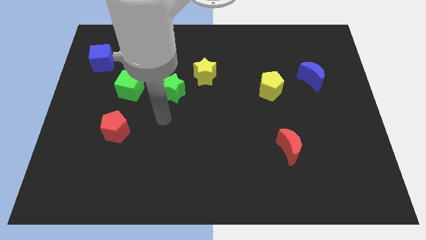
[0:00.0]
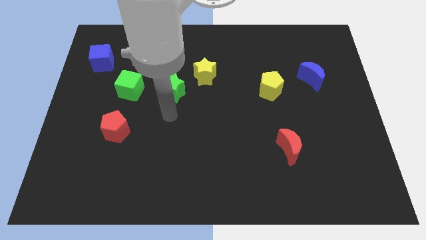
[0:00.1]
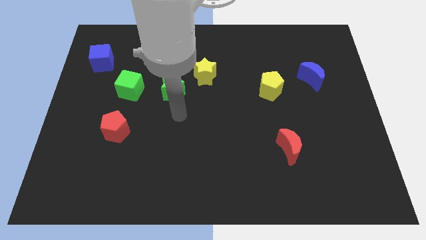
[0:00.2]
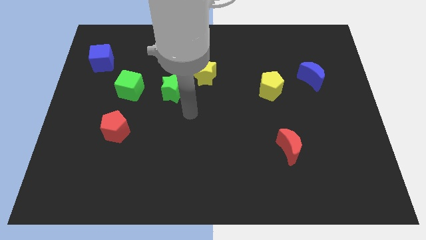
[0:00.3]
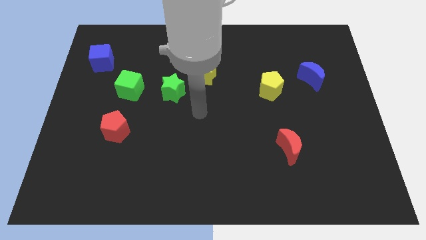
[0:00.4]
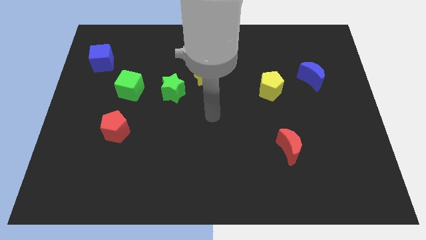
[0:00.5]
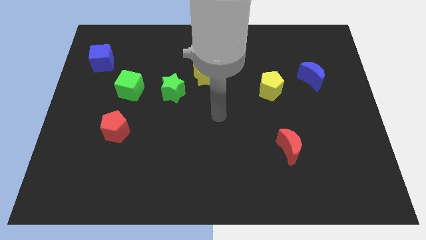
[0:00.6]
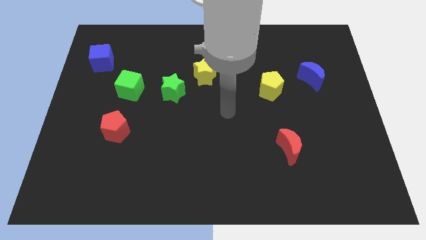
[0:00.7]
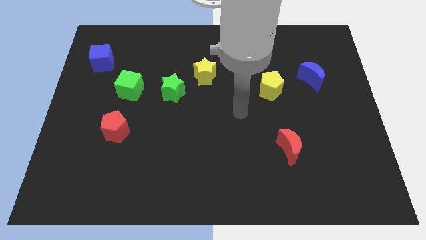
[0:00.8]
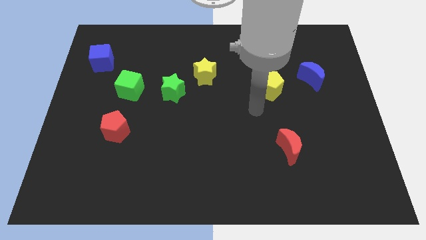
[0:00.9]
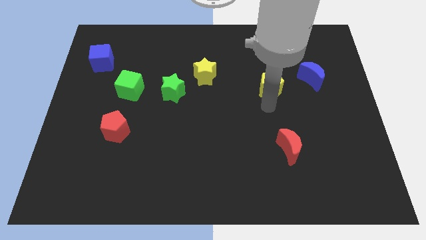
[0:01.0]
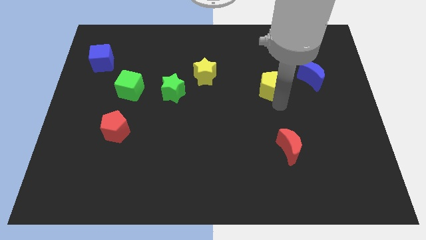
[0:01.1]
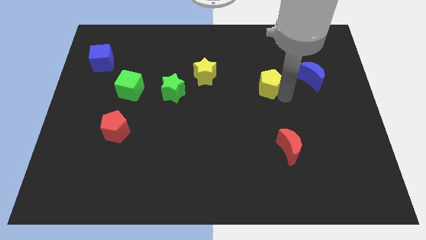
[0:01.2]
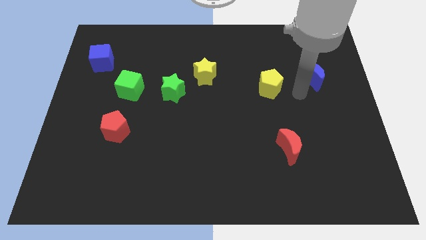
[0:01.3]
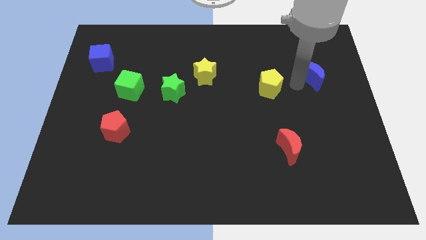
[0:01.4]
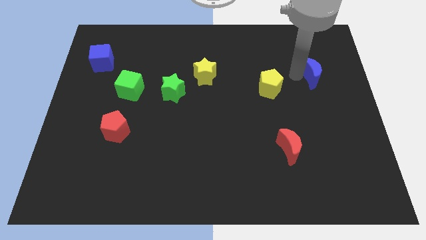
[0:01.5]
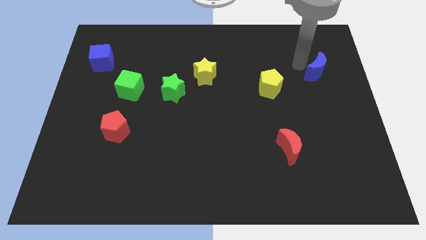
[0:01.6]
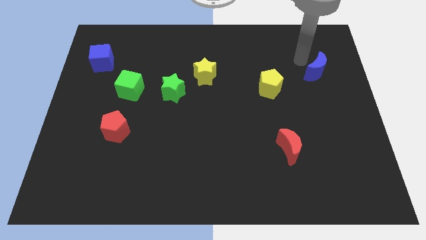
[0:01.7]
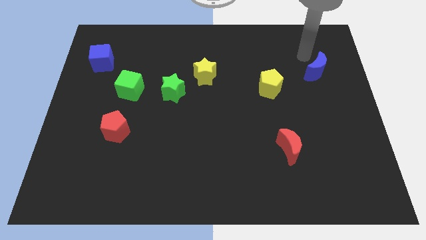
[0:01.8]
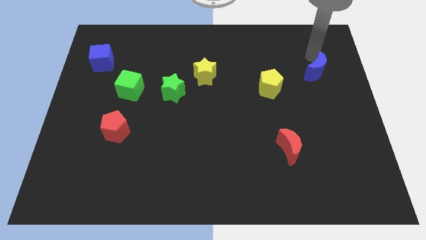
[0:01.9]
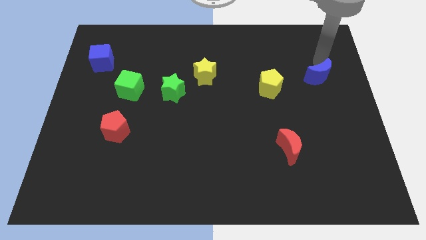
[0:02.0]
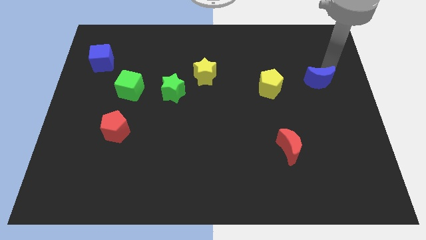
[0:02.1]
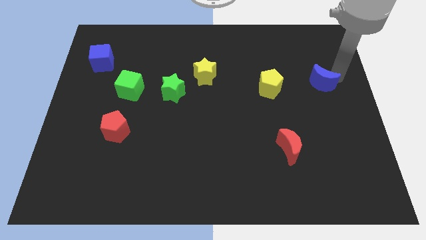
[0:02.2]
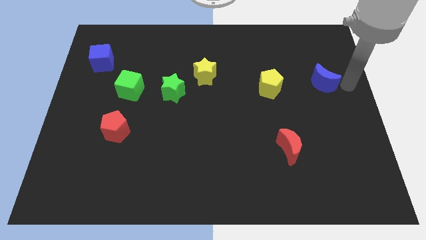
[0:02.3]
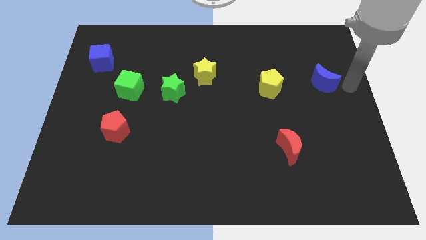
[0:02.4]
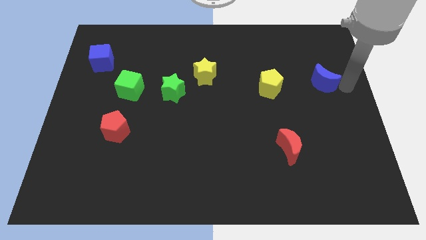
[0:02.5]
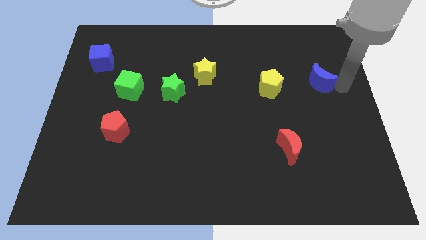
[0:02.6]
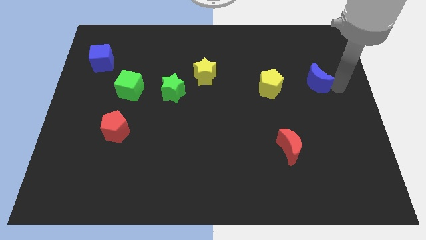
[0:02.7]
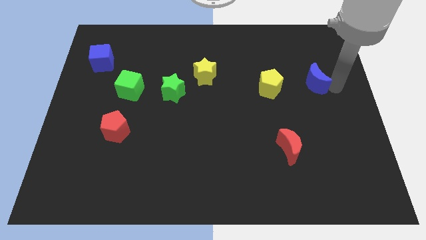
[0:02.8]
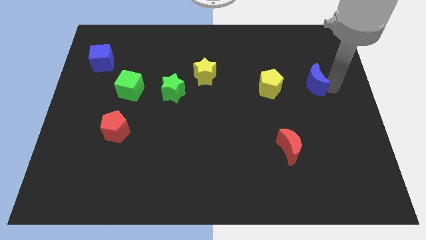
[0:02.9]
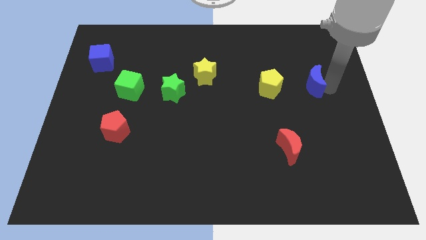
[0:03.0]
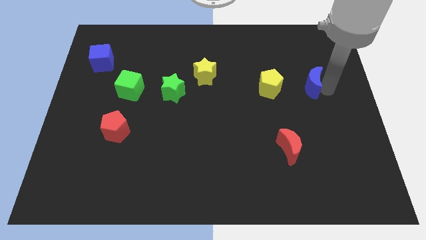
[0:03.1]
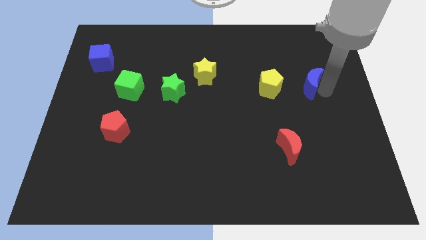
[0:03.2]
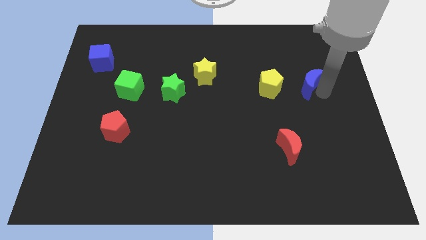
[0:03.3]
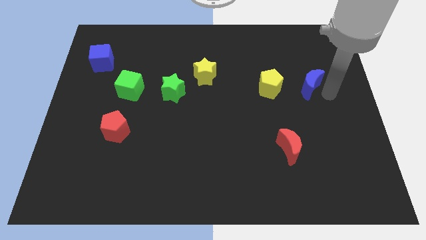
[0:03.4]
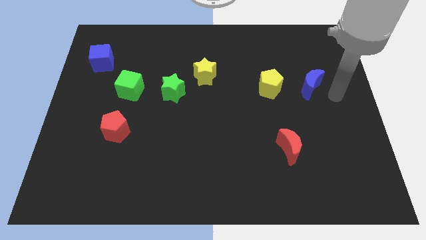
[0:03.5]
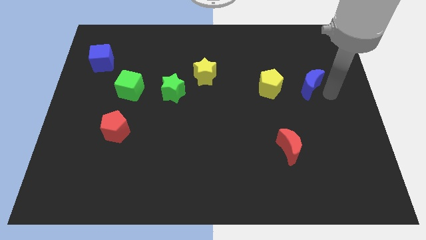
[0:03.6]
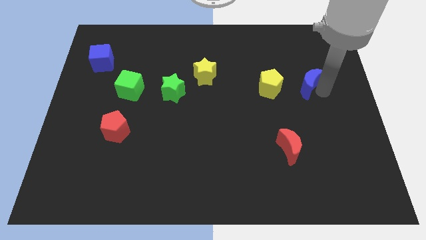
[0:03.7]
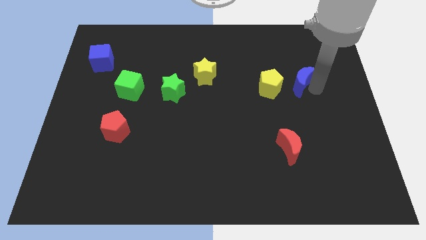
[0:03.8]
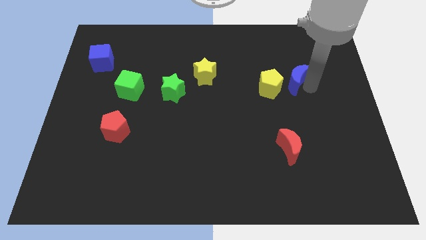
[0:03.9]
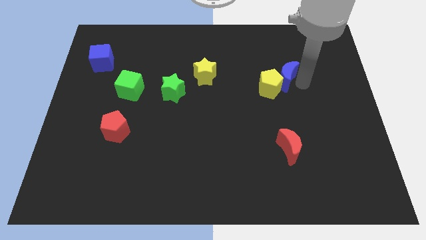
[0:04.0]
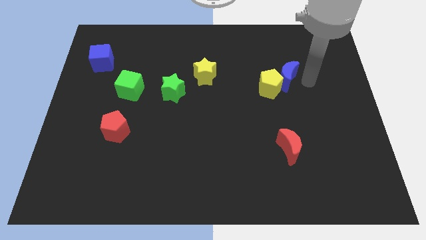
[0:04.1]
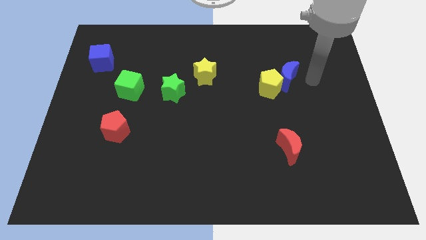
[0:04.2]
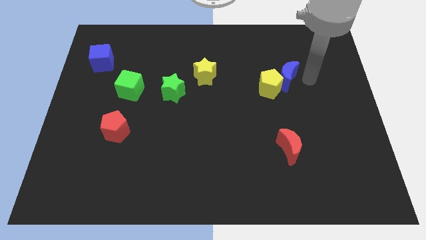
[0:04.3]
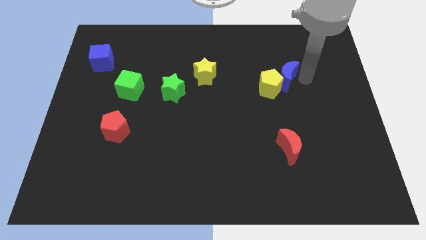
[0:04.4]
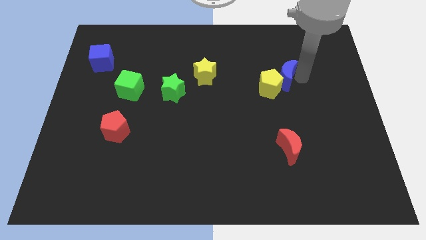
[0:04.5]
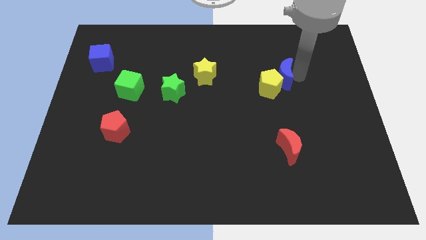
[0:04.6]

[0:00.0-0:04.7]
slightly push the blue moon left

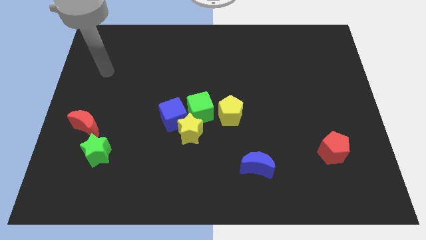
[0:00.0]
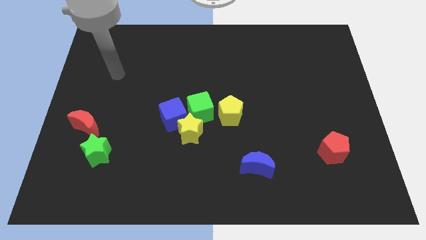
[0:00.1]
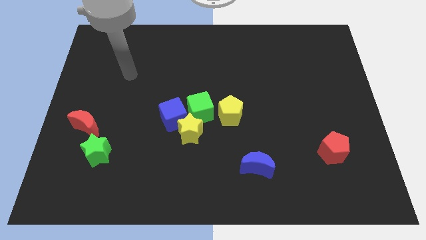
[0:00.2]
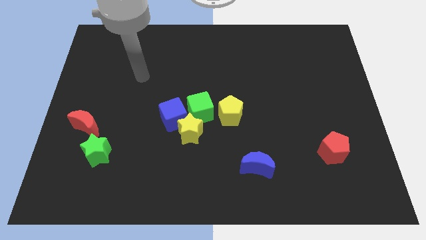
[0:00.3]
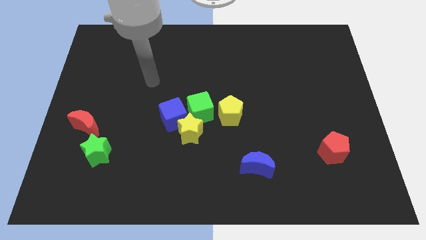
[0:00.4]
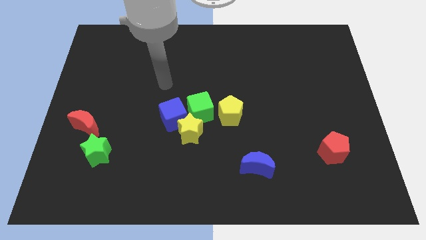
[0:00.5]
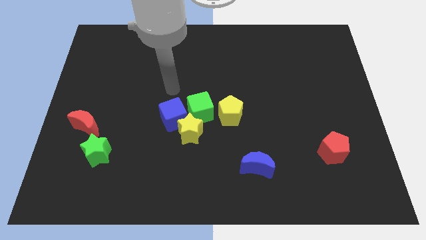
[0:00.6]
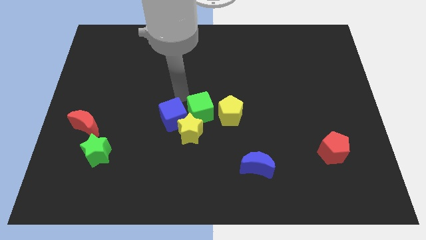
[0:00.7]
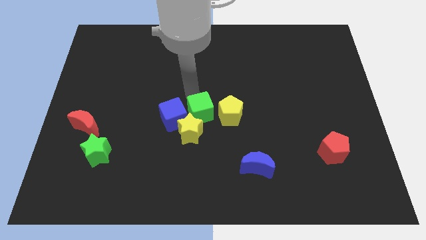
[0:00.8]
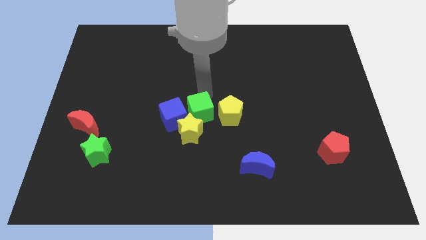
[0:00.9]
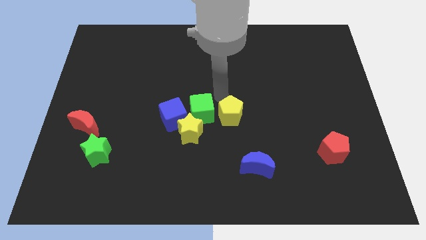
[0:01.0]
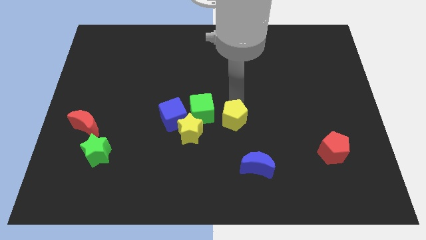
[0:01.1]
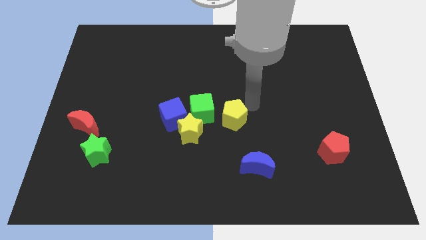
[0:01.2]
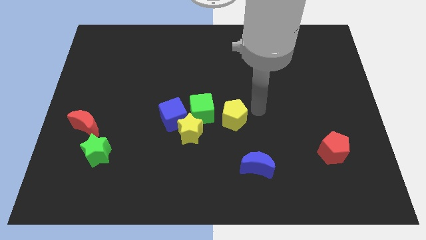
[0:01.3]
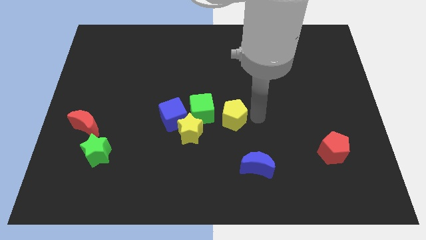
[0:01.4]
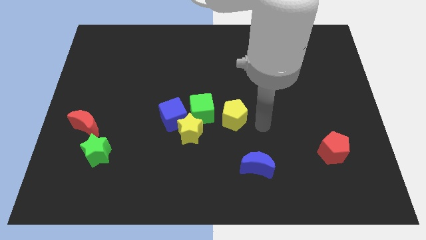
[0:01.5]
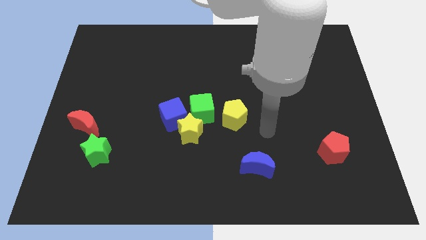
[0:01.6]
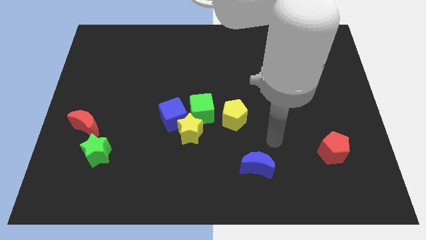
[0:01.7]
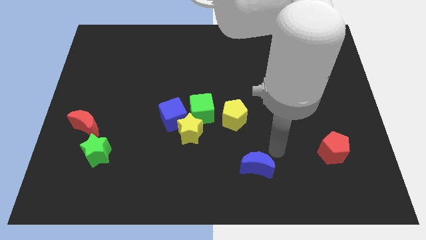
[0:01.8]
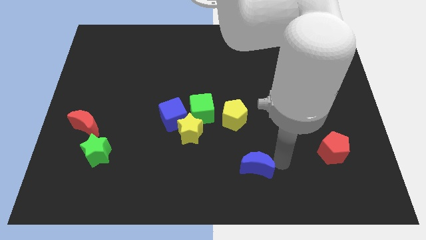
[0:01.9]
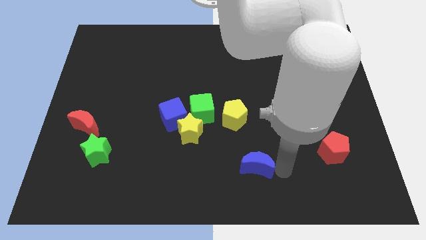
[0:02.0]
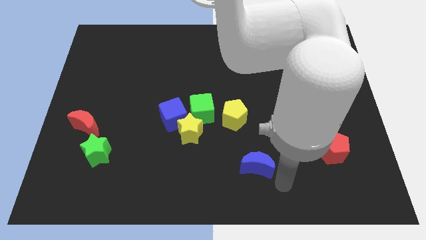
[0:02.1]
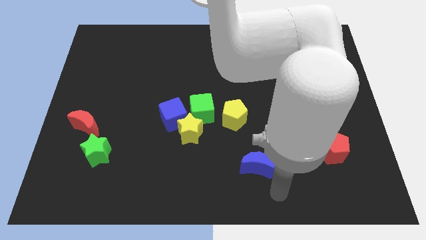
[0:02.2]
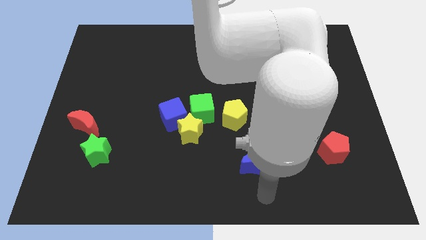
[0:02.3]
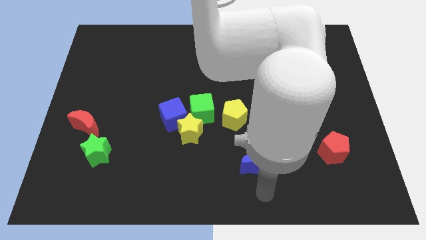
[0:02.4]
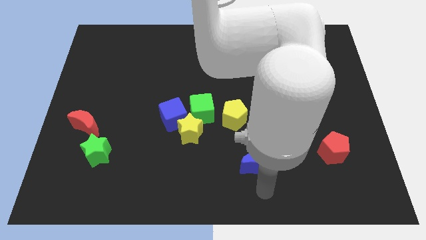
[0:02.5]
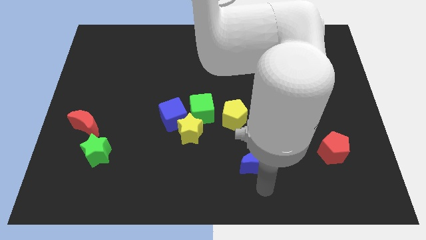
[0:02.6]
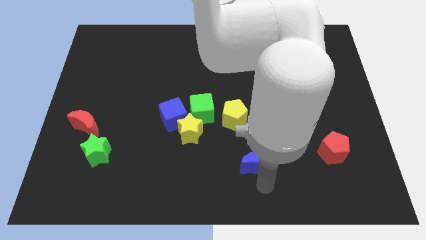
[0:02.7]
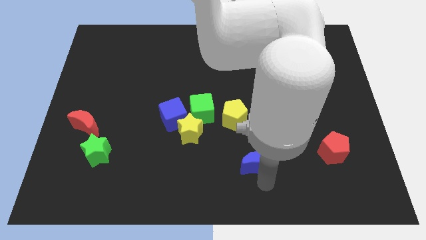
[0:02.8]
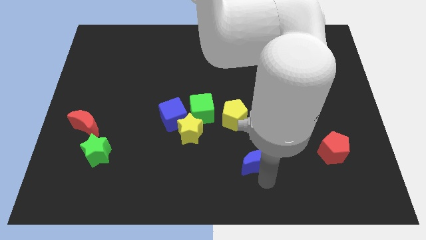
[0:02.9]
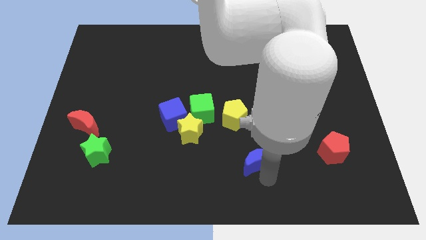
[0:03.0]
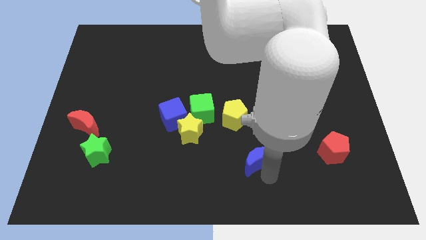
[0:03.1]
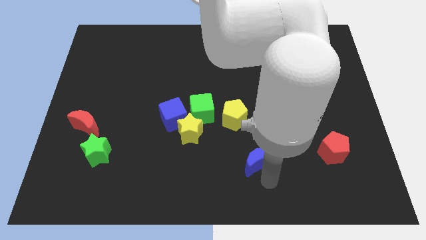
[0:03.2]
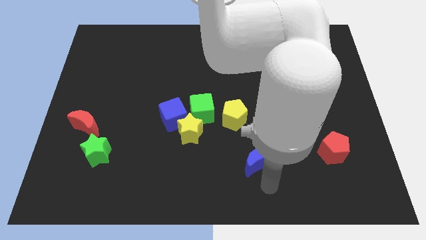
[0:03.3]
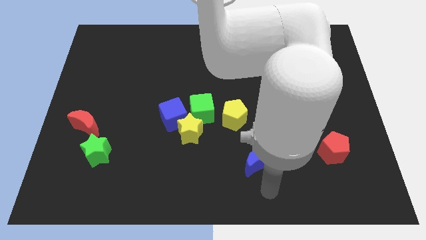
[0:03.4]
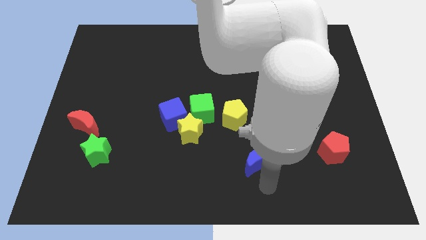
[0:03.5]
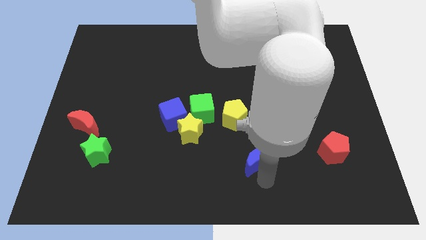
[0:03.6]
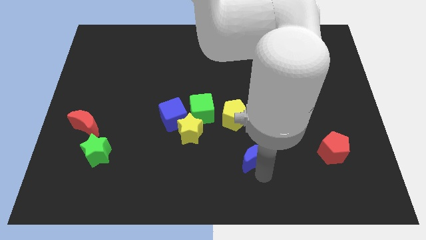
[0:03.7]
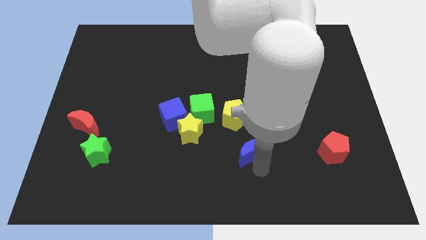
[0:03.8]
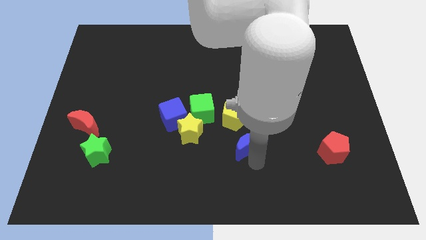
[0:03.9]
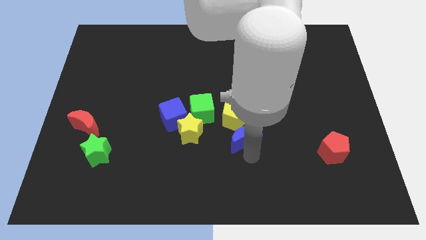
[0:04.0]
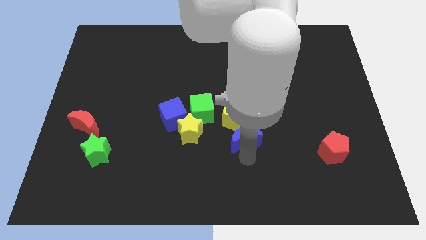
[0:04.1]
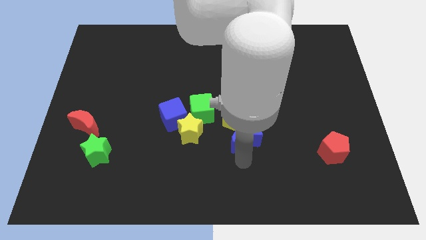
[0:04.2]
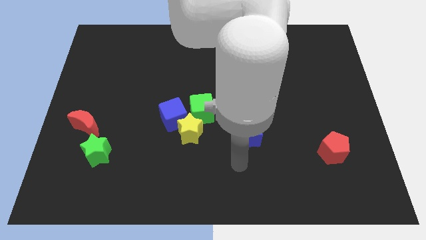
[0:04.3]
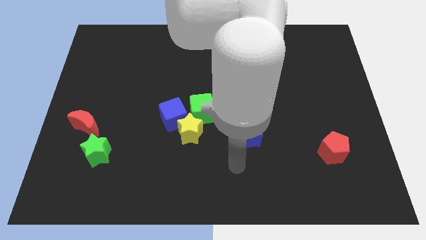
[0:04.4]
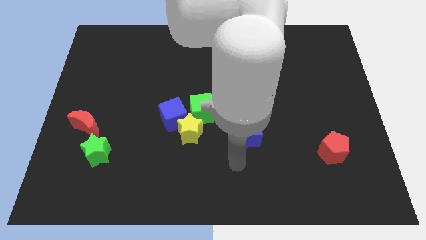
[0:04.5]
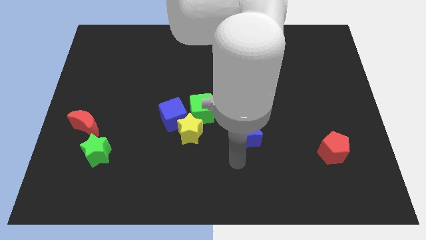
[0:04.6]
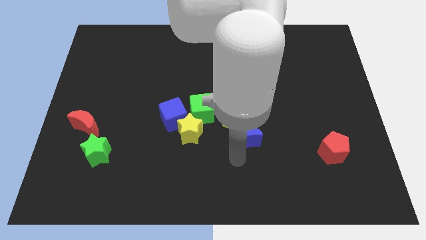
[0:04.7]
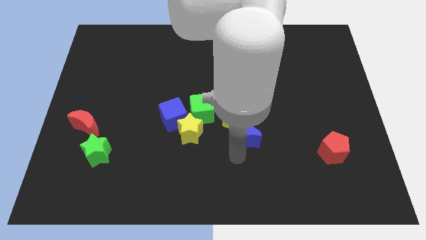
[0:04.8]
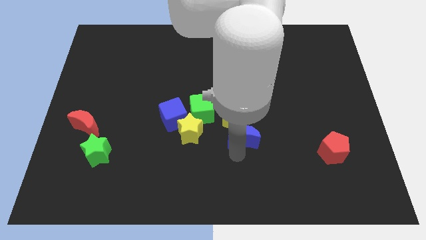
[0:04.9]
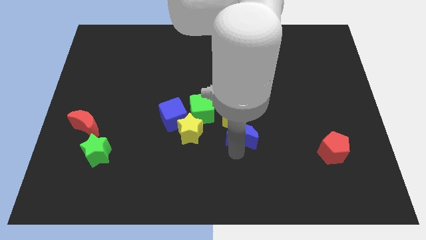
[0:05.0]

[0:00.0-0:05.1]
slide the blue moon upwards somewhat
